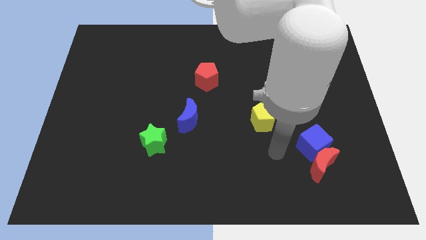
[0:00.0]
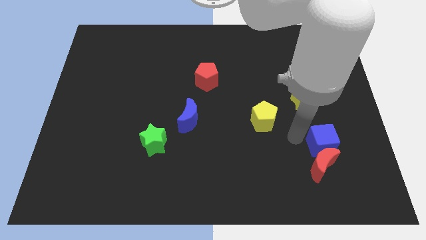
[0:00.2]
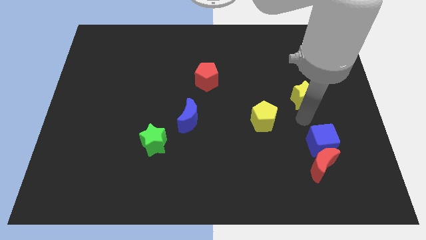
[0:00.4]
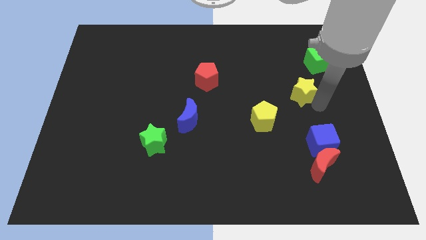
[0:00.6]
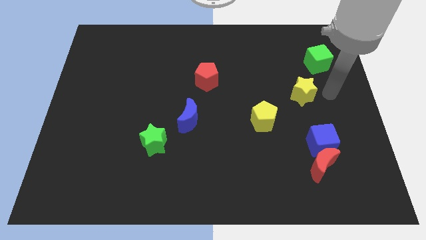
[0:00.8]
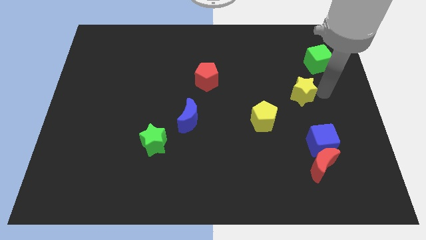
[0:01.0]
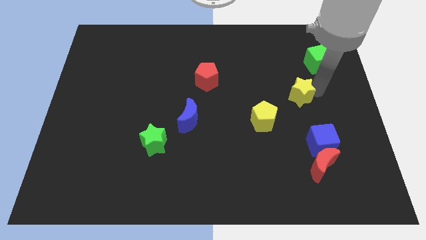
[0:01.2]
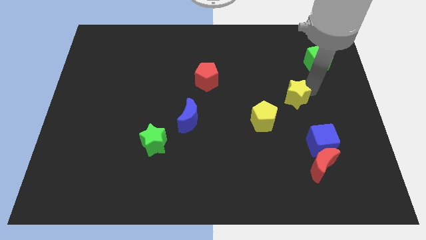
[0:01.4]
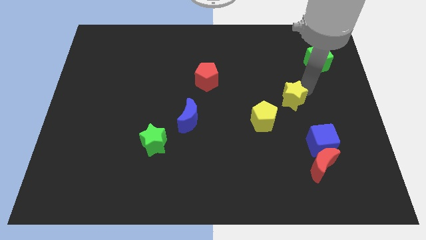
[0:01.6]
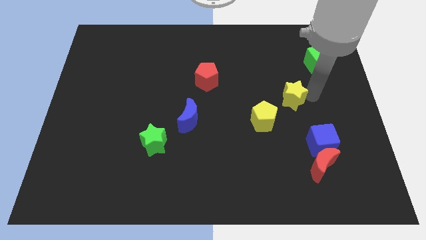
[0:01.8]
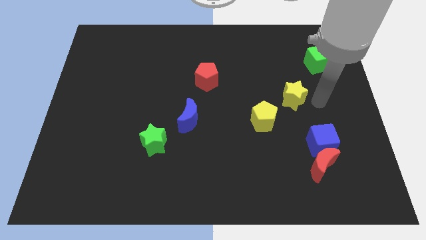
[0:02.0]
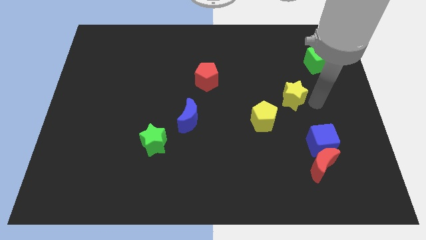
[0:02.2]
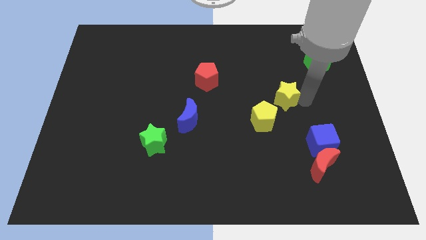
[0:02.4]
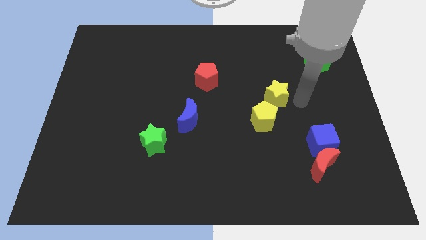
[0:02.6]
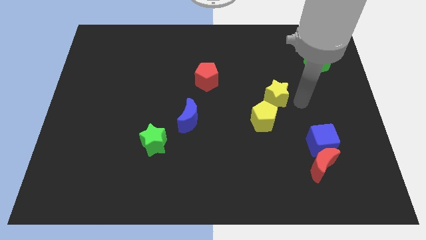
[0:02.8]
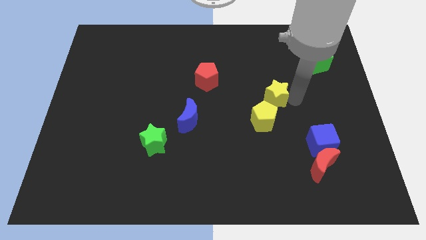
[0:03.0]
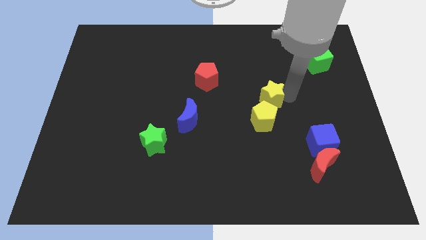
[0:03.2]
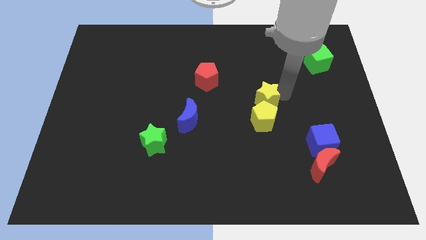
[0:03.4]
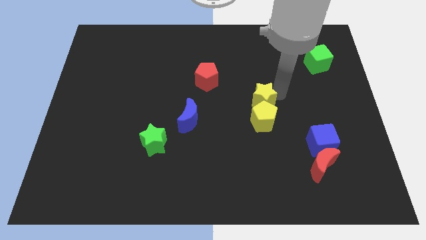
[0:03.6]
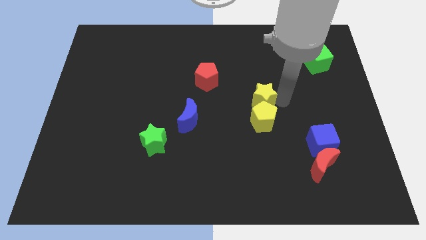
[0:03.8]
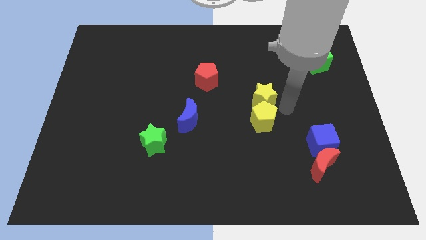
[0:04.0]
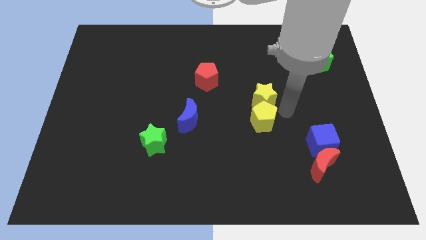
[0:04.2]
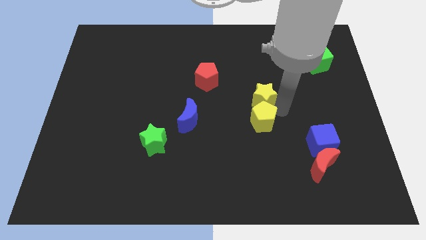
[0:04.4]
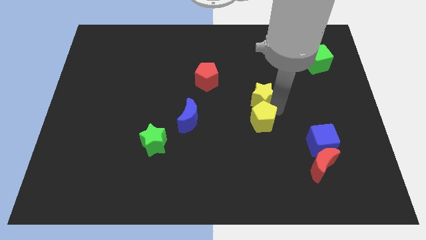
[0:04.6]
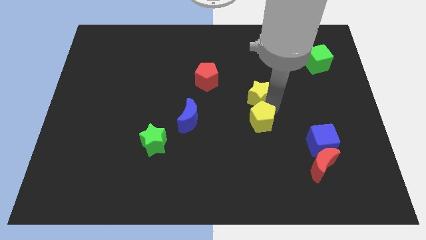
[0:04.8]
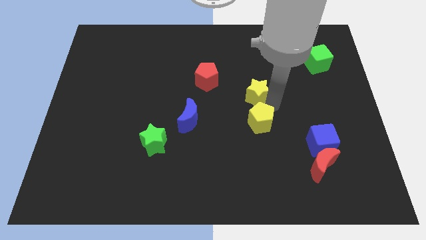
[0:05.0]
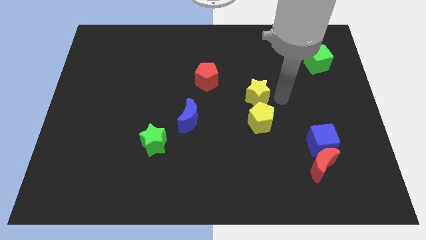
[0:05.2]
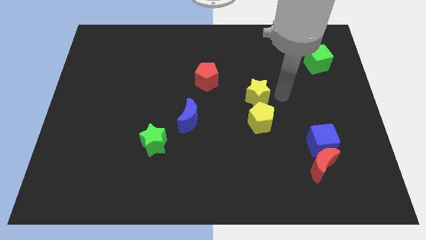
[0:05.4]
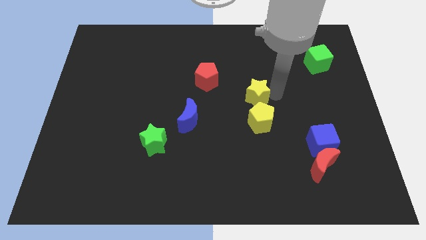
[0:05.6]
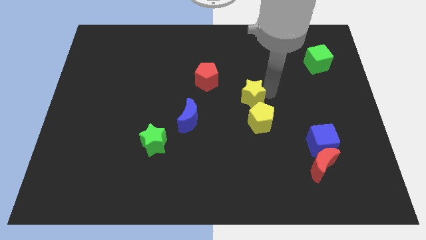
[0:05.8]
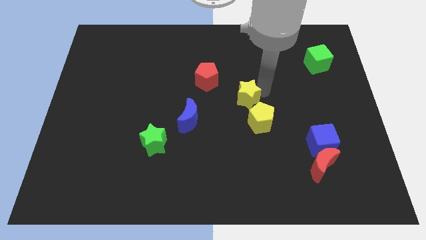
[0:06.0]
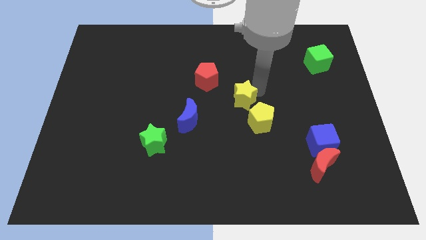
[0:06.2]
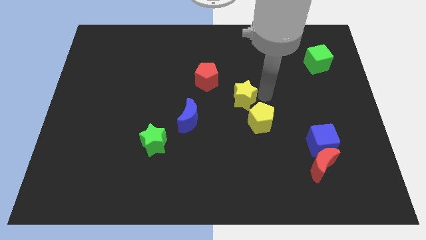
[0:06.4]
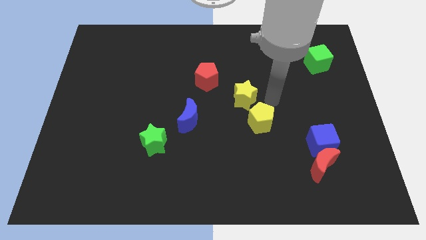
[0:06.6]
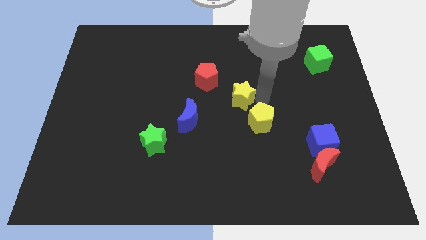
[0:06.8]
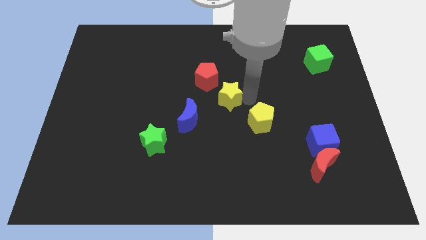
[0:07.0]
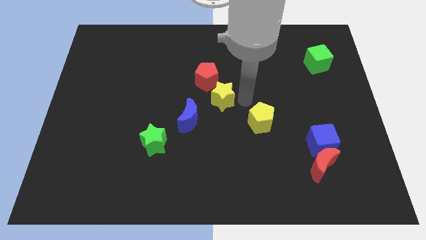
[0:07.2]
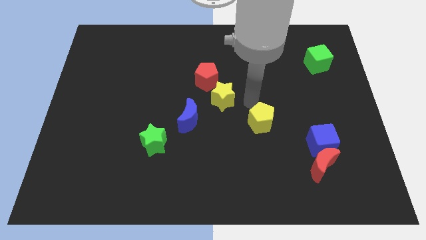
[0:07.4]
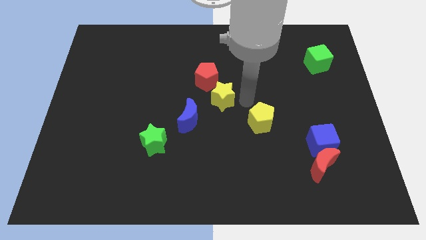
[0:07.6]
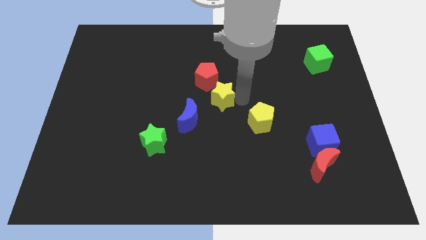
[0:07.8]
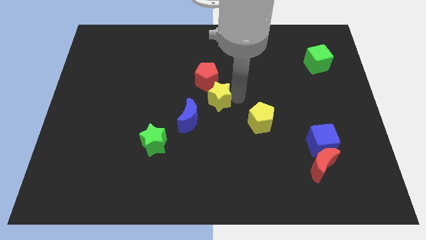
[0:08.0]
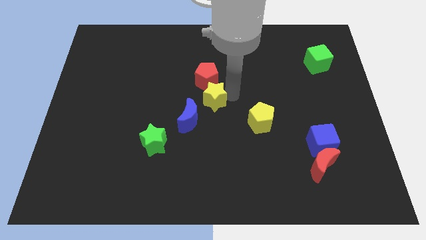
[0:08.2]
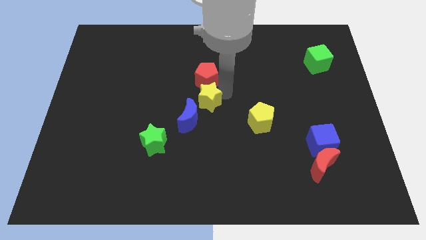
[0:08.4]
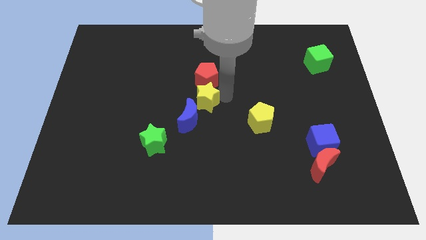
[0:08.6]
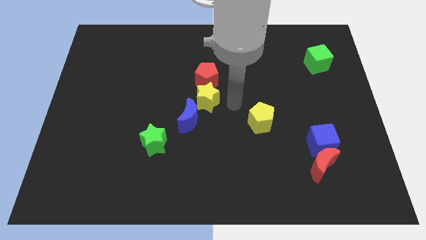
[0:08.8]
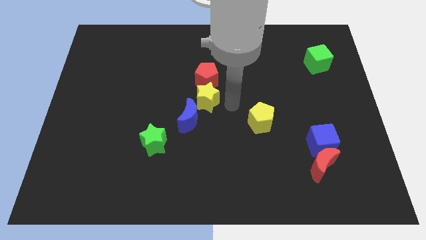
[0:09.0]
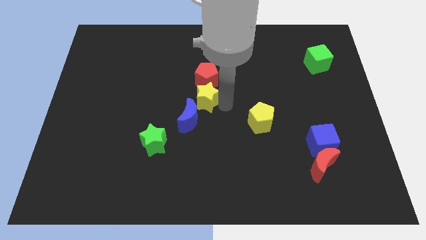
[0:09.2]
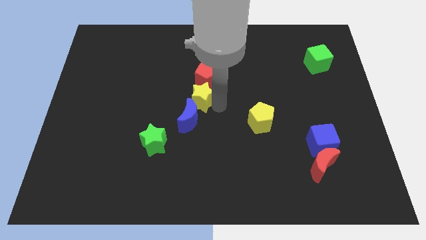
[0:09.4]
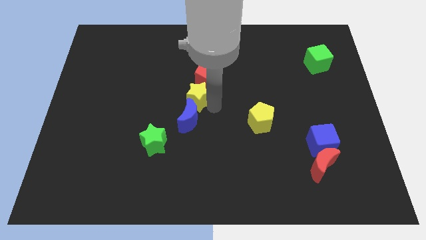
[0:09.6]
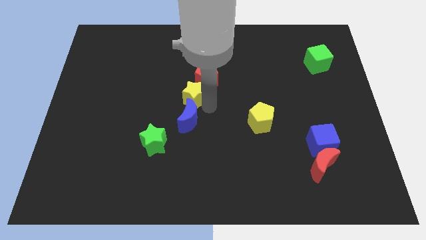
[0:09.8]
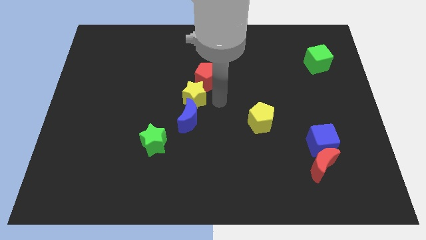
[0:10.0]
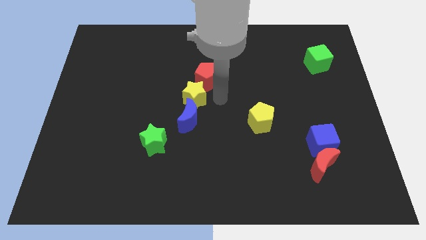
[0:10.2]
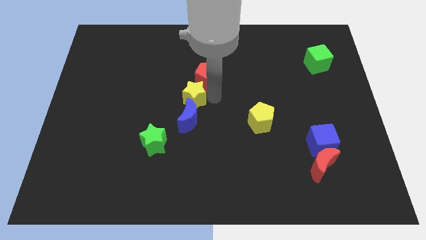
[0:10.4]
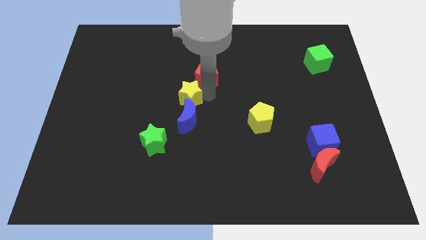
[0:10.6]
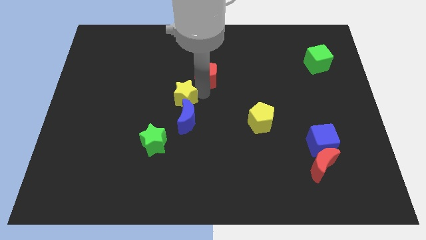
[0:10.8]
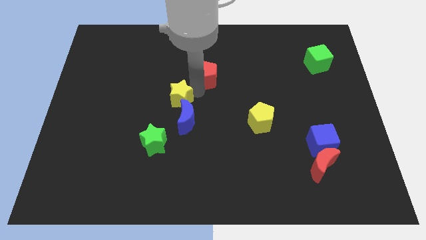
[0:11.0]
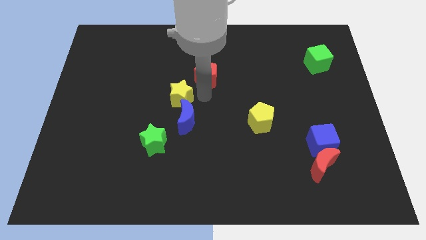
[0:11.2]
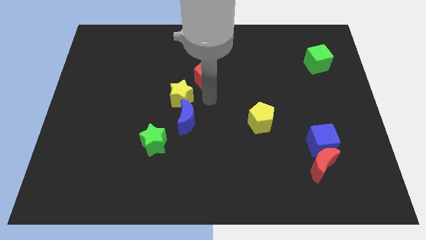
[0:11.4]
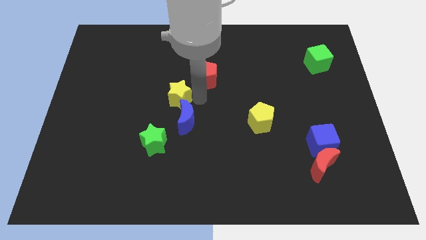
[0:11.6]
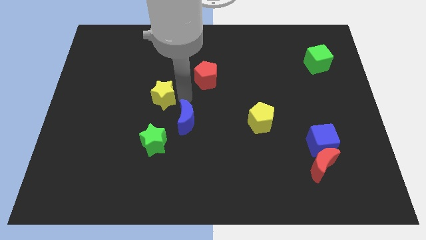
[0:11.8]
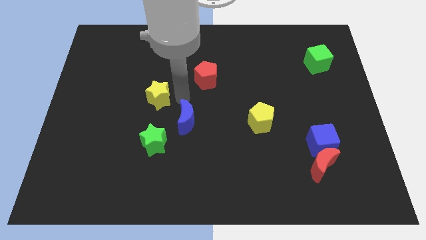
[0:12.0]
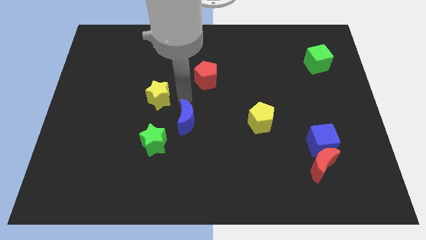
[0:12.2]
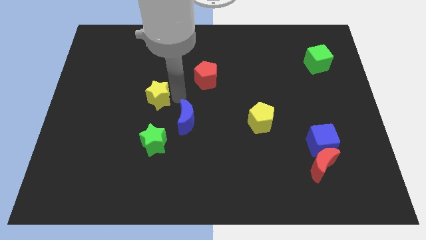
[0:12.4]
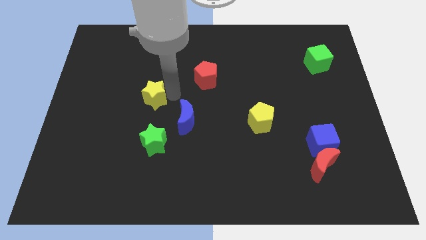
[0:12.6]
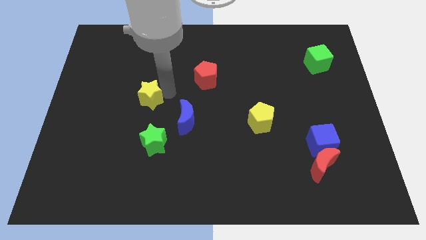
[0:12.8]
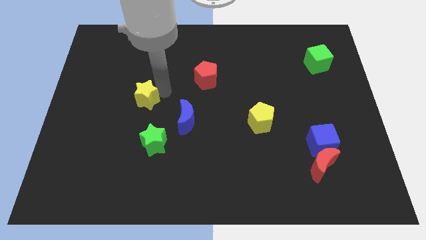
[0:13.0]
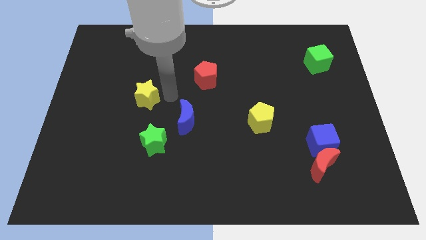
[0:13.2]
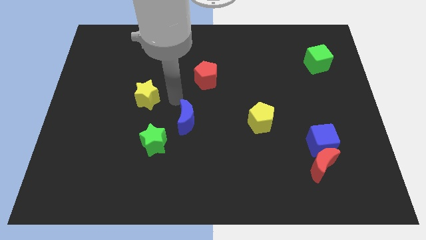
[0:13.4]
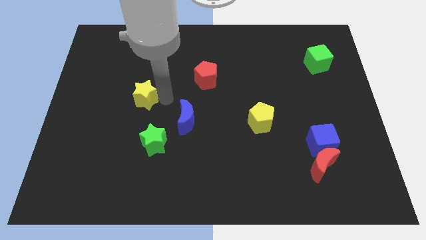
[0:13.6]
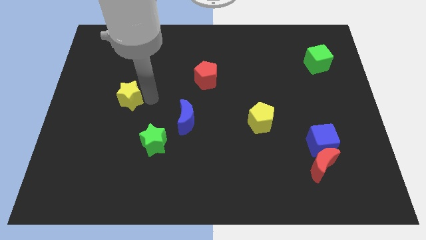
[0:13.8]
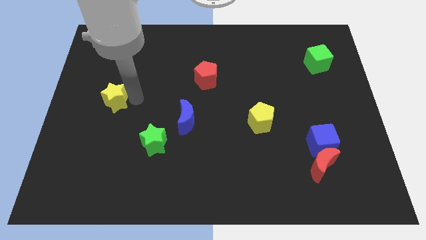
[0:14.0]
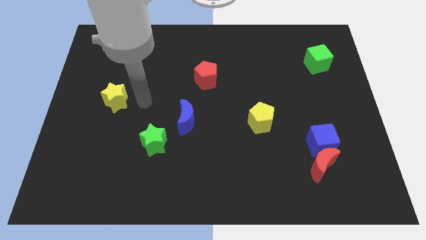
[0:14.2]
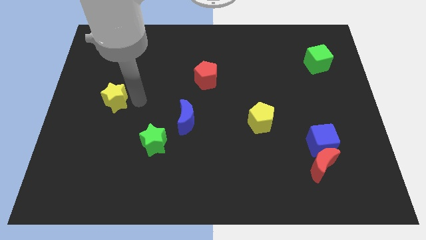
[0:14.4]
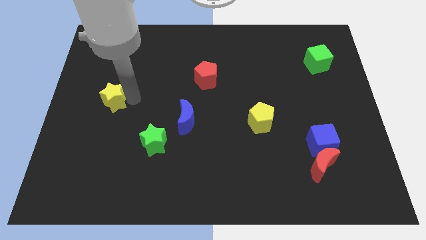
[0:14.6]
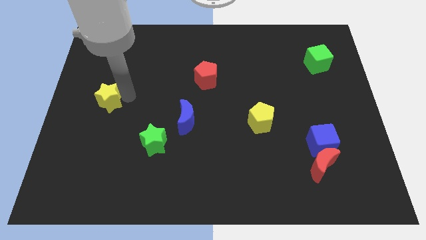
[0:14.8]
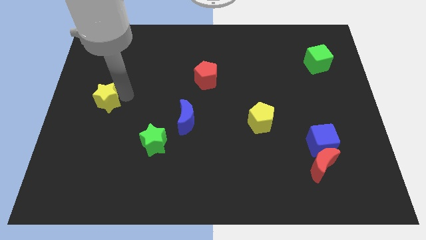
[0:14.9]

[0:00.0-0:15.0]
slide the yellow star to the left side

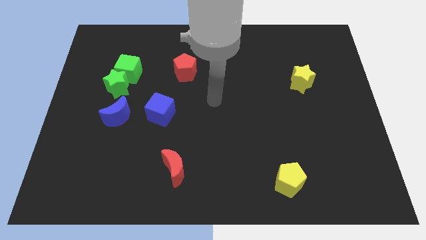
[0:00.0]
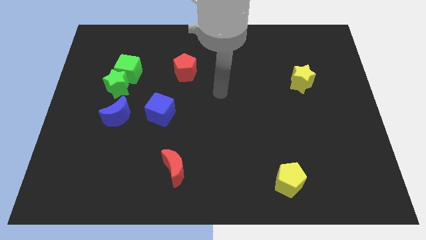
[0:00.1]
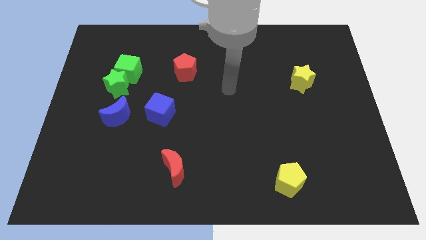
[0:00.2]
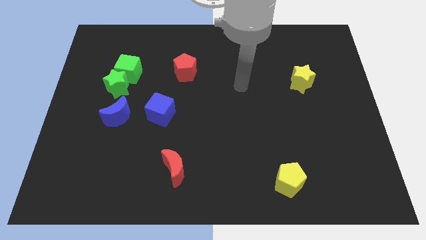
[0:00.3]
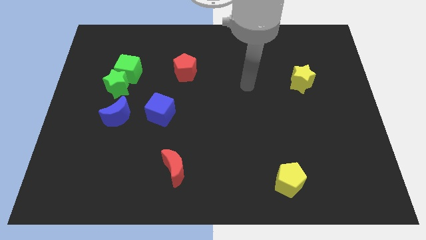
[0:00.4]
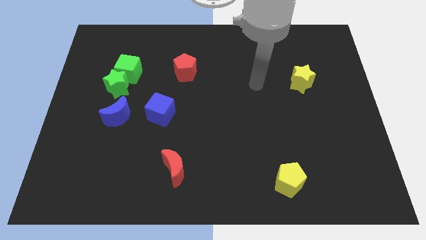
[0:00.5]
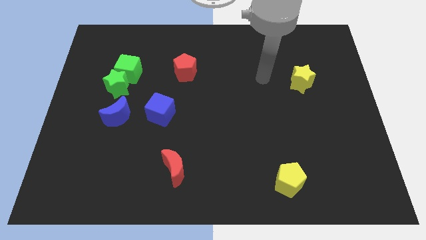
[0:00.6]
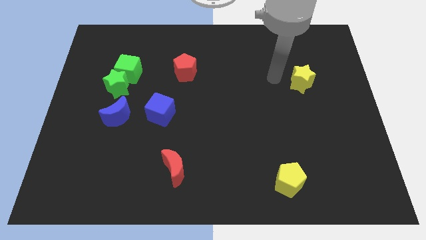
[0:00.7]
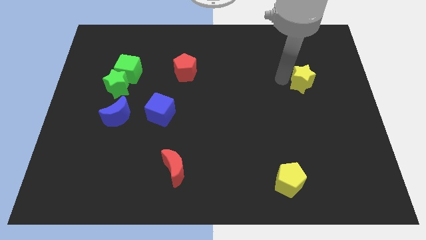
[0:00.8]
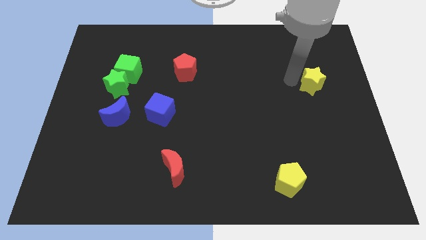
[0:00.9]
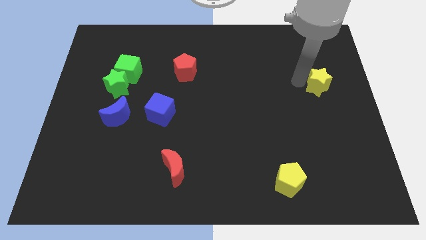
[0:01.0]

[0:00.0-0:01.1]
put the yellow star to the right side of the board
